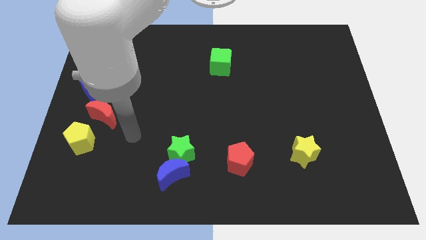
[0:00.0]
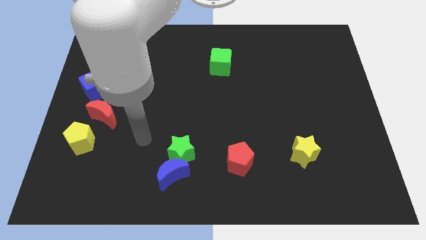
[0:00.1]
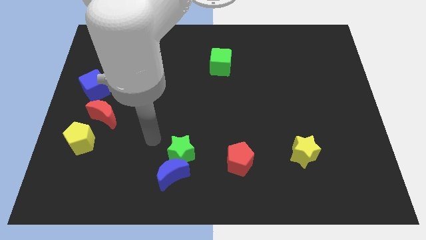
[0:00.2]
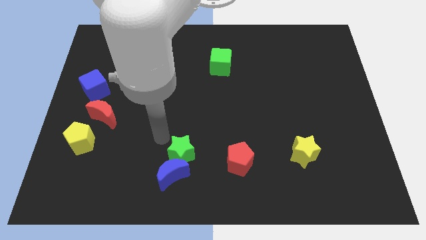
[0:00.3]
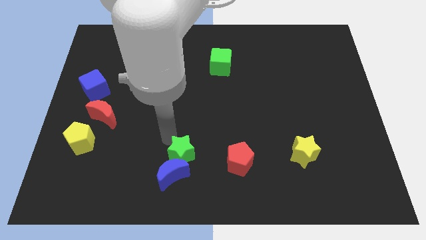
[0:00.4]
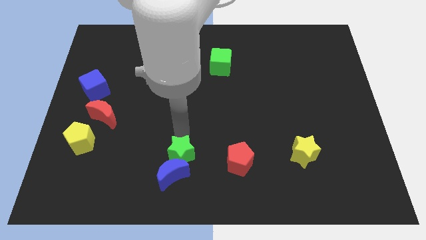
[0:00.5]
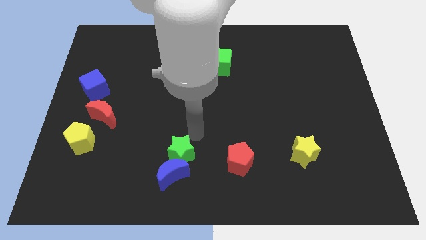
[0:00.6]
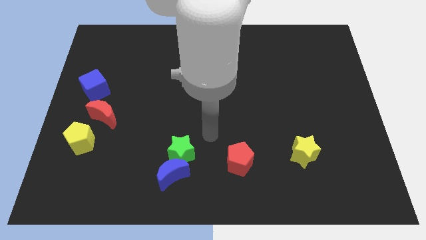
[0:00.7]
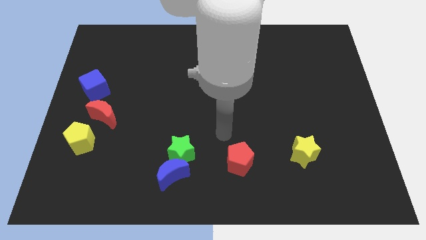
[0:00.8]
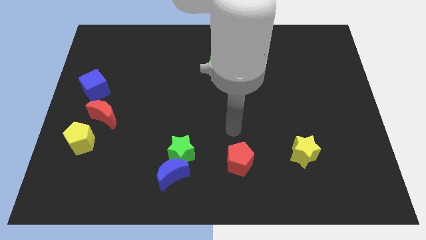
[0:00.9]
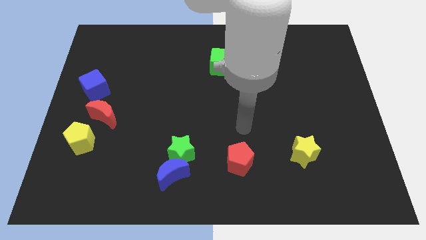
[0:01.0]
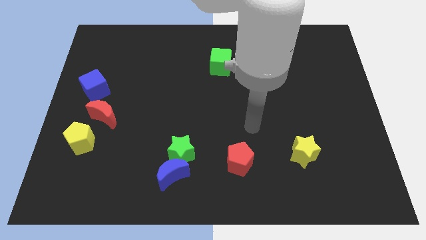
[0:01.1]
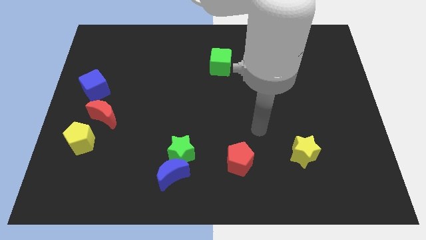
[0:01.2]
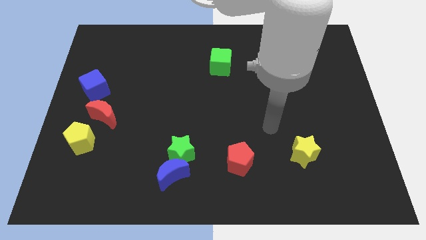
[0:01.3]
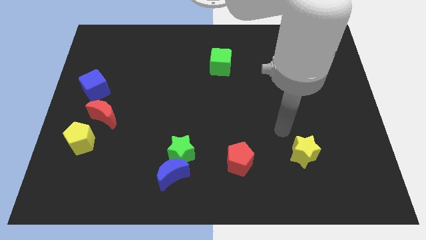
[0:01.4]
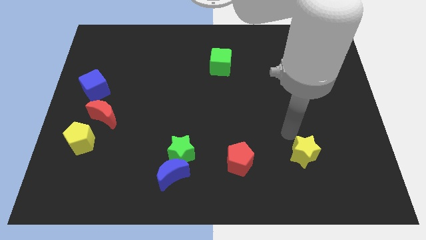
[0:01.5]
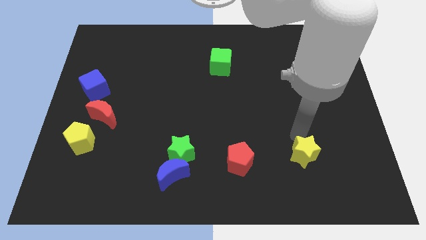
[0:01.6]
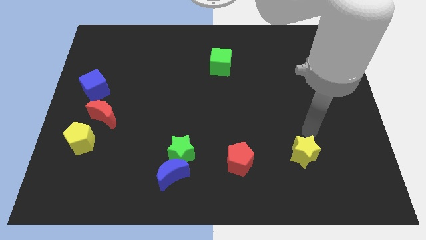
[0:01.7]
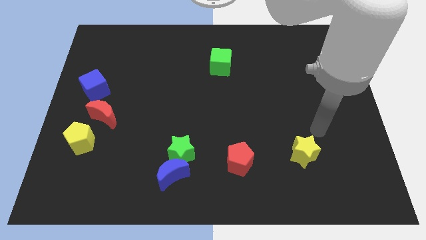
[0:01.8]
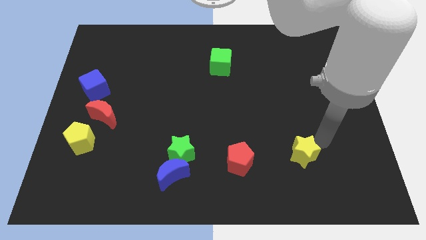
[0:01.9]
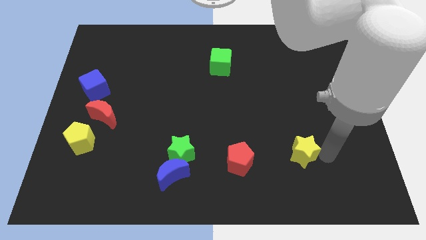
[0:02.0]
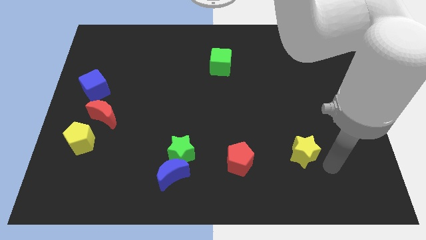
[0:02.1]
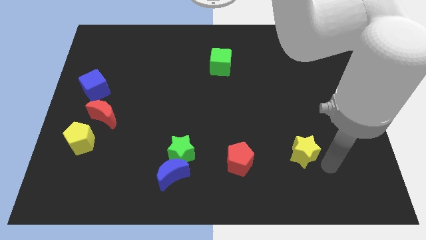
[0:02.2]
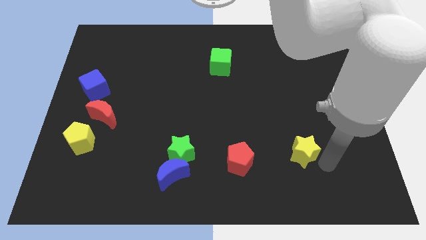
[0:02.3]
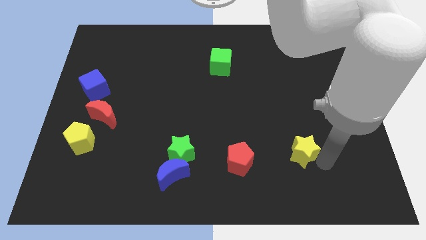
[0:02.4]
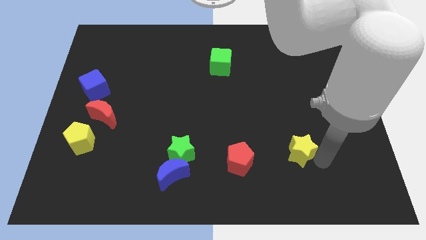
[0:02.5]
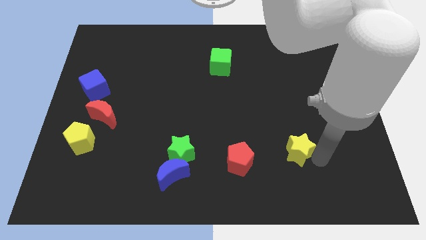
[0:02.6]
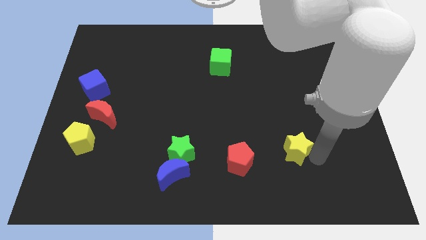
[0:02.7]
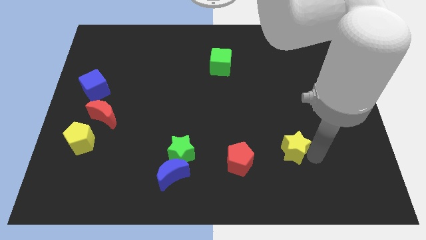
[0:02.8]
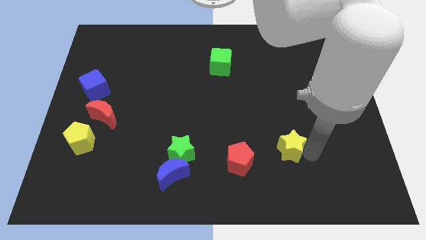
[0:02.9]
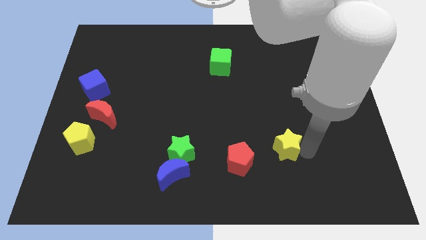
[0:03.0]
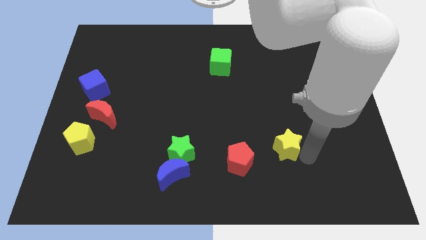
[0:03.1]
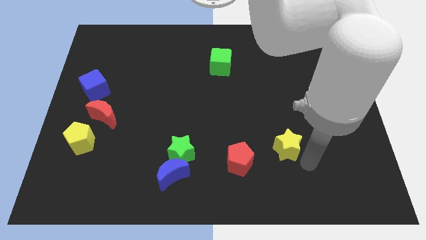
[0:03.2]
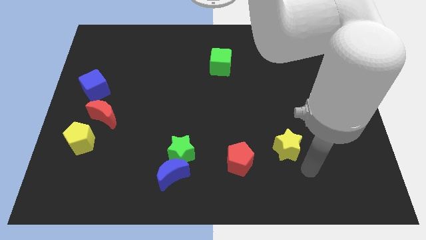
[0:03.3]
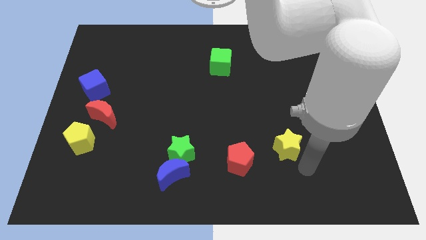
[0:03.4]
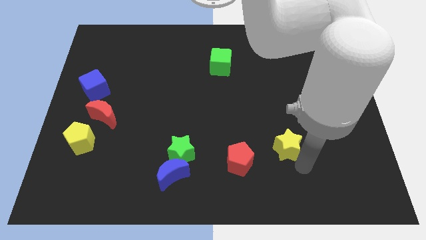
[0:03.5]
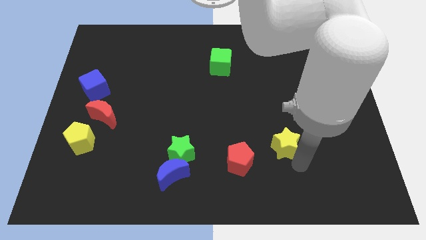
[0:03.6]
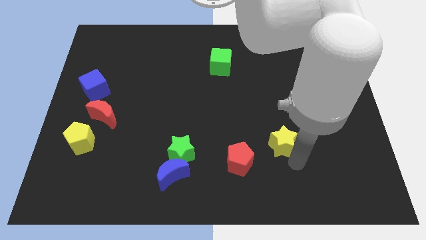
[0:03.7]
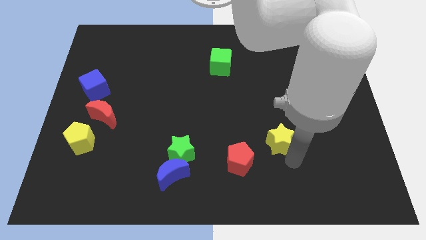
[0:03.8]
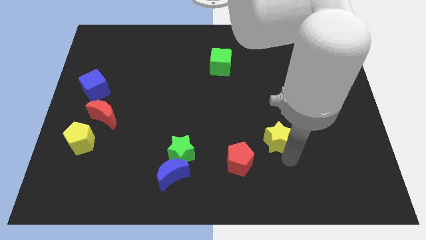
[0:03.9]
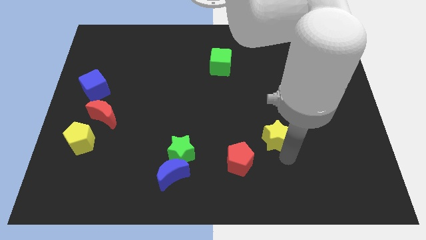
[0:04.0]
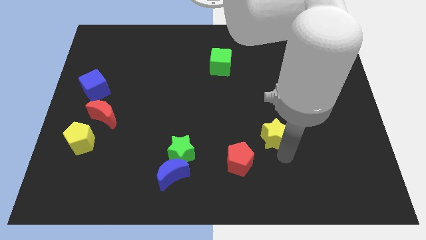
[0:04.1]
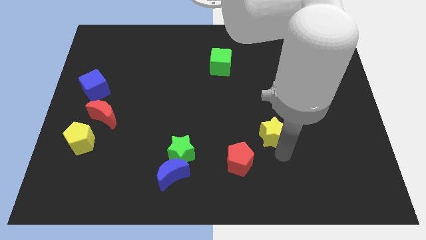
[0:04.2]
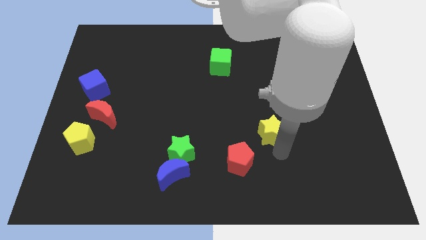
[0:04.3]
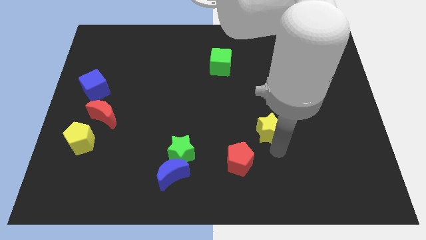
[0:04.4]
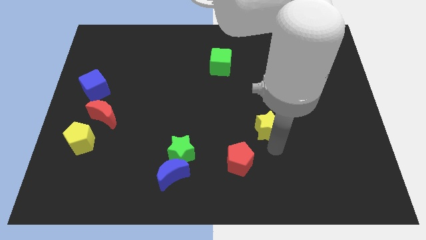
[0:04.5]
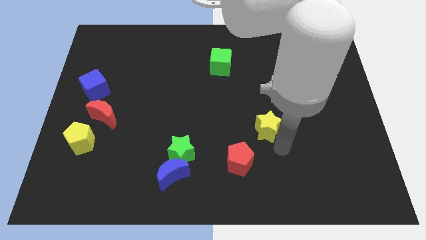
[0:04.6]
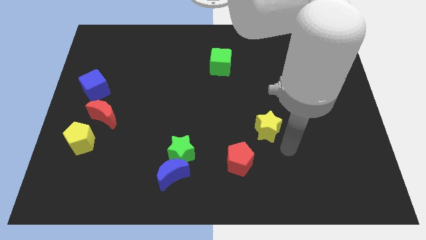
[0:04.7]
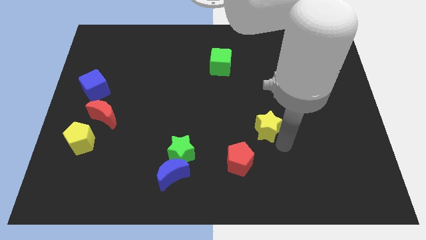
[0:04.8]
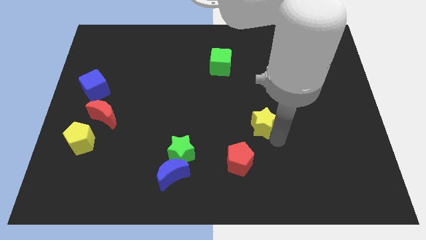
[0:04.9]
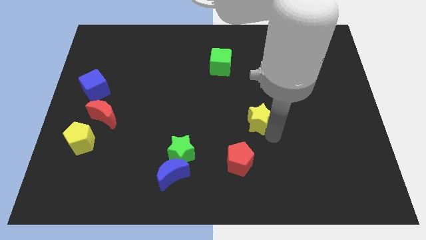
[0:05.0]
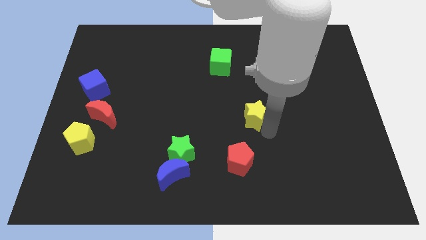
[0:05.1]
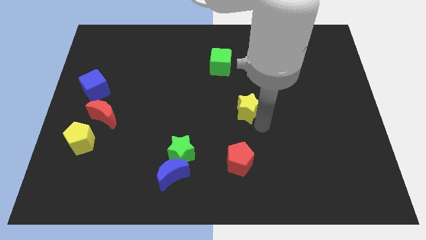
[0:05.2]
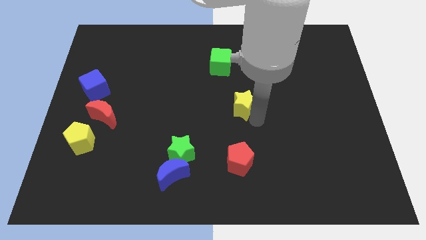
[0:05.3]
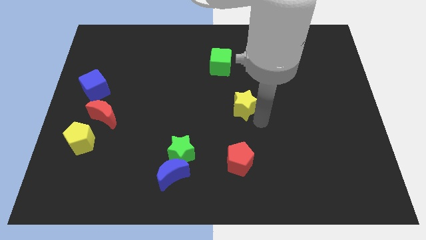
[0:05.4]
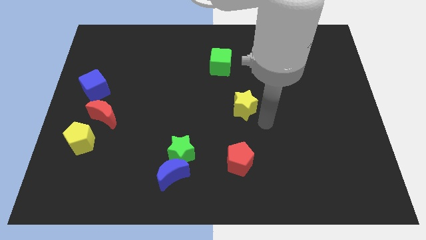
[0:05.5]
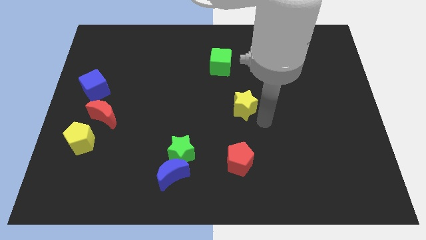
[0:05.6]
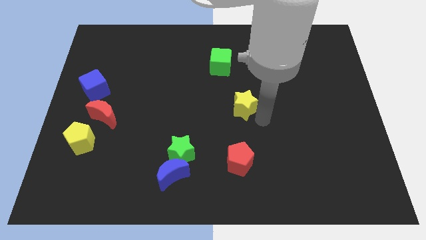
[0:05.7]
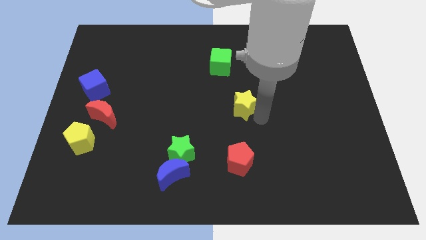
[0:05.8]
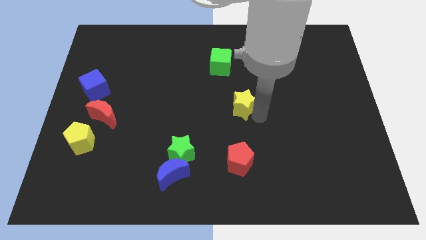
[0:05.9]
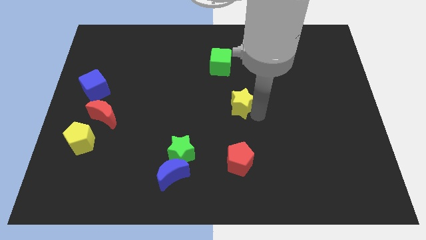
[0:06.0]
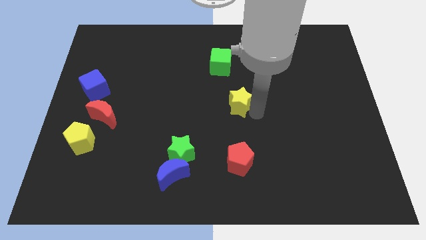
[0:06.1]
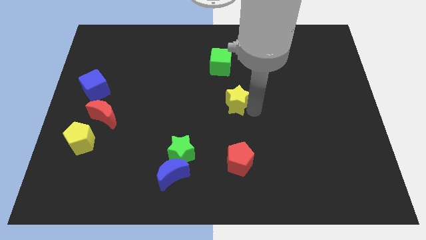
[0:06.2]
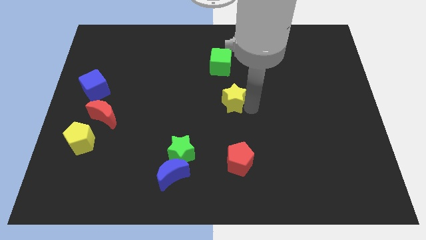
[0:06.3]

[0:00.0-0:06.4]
move the yellow star up and left

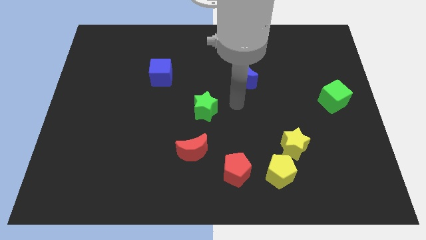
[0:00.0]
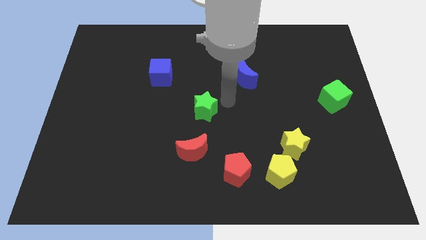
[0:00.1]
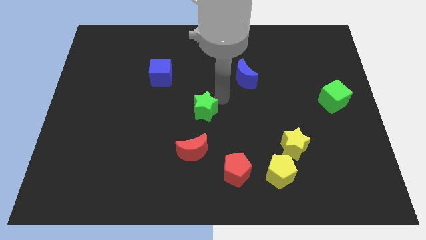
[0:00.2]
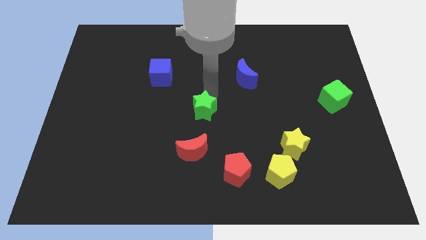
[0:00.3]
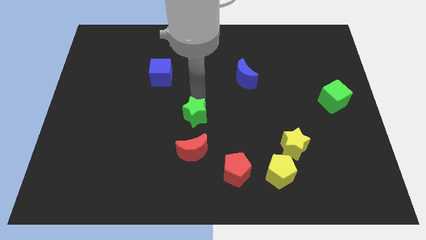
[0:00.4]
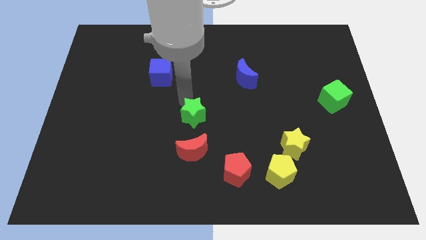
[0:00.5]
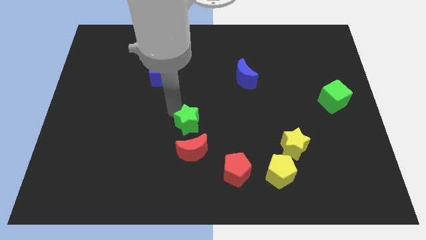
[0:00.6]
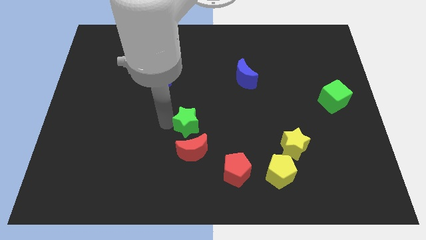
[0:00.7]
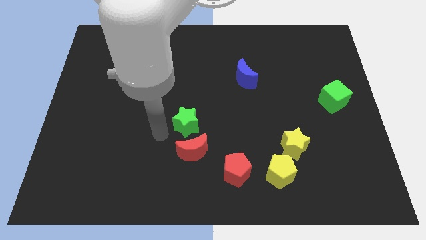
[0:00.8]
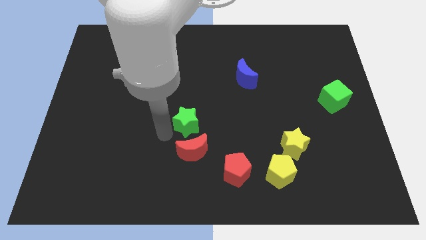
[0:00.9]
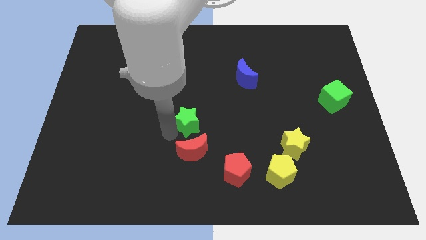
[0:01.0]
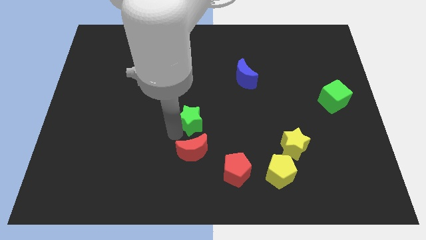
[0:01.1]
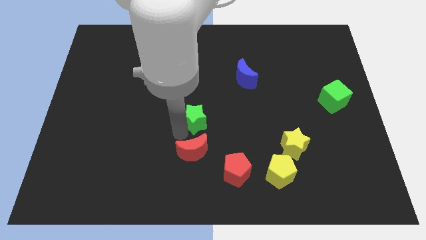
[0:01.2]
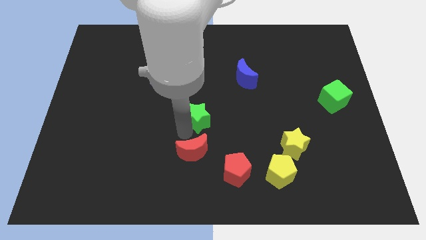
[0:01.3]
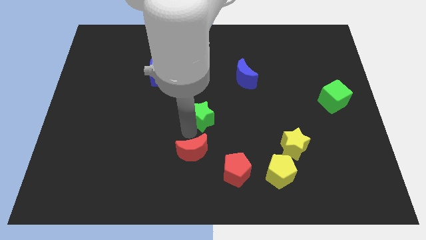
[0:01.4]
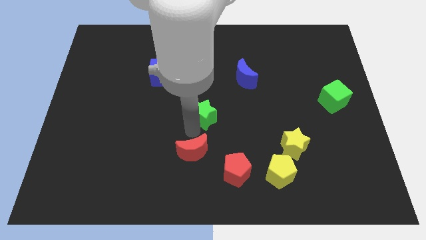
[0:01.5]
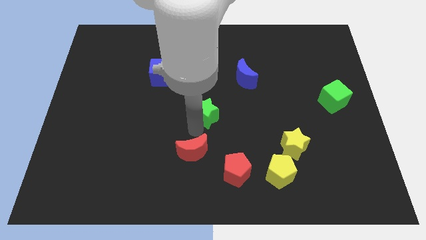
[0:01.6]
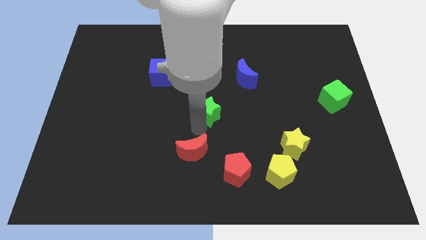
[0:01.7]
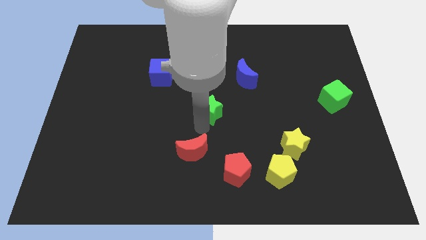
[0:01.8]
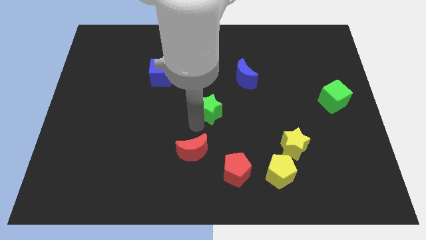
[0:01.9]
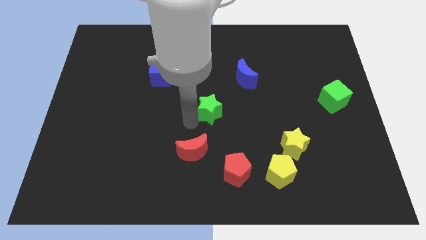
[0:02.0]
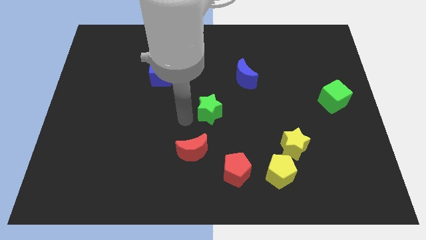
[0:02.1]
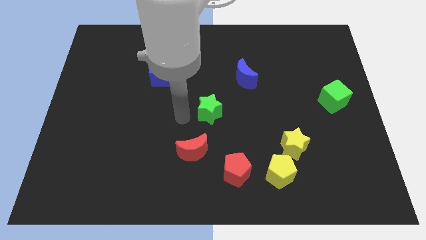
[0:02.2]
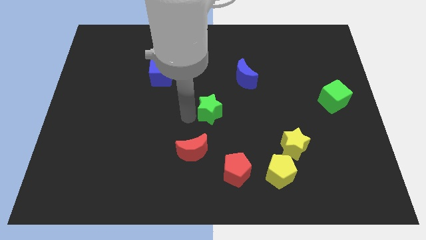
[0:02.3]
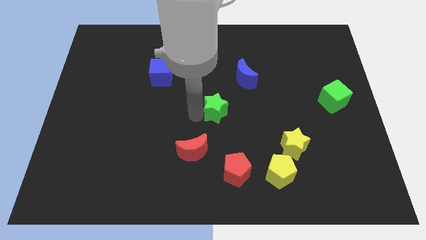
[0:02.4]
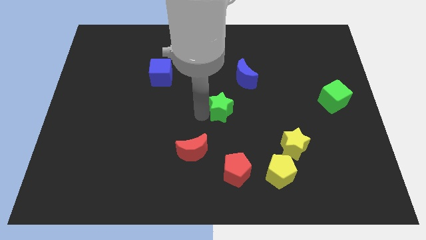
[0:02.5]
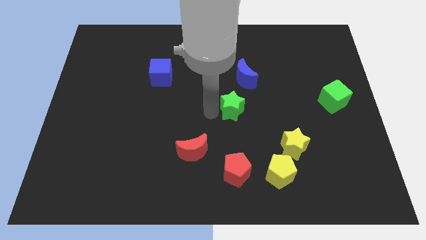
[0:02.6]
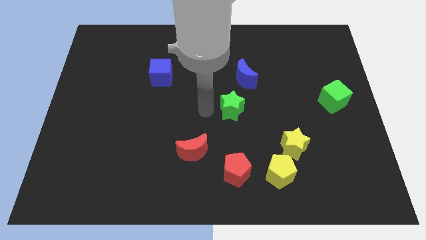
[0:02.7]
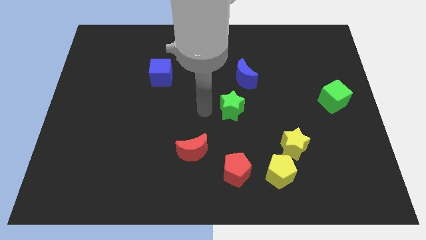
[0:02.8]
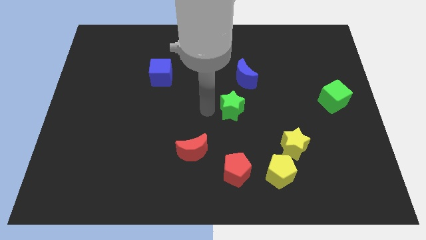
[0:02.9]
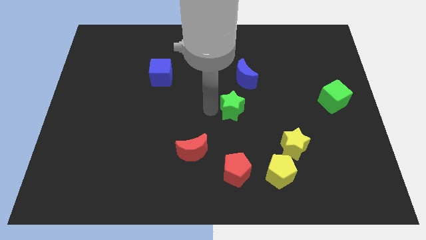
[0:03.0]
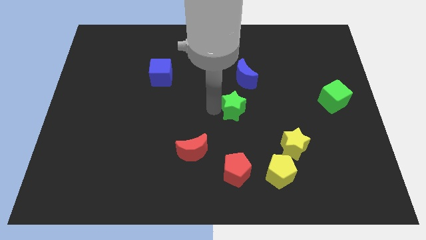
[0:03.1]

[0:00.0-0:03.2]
slide the green star right a bit
